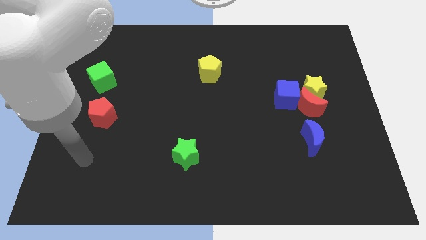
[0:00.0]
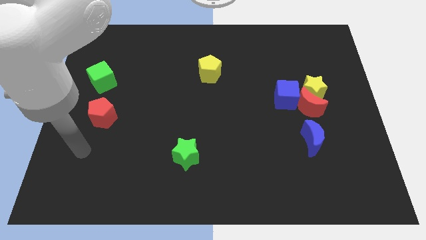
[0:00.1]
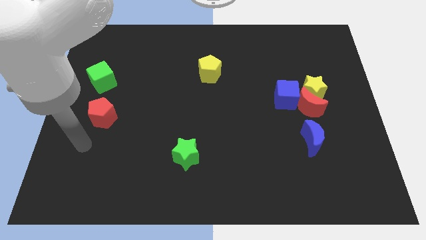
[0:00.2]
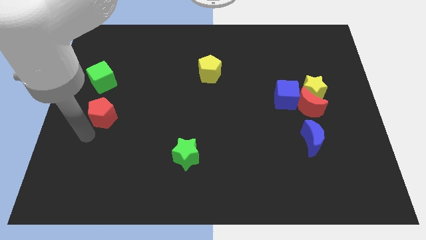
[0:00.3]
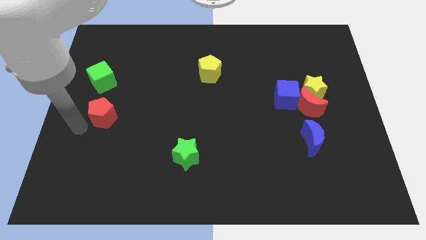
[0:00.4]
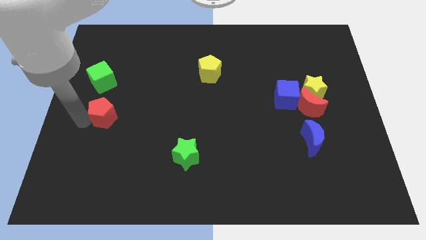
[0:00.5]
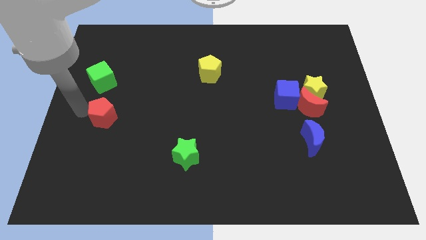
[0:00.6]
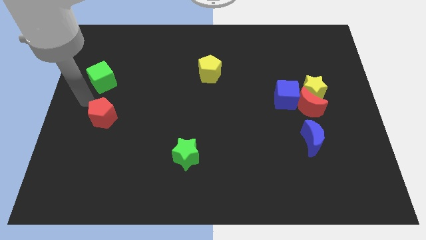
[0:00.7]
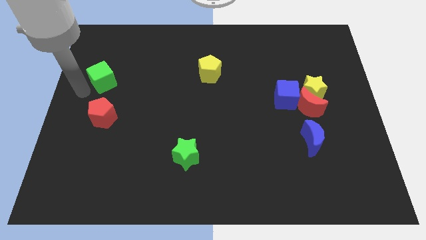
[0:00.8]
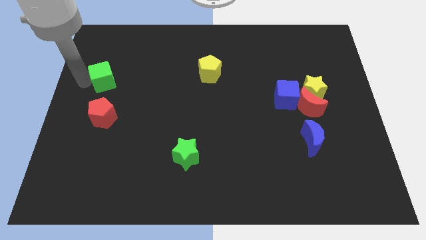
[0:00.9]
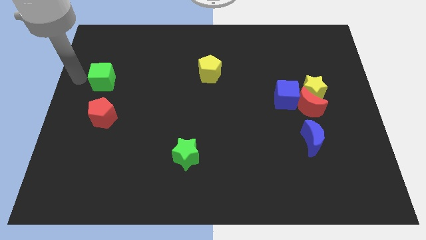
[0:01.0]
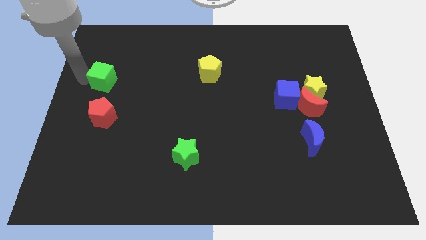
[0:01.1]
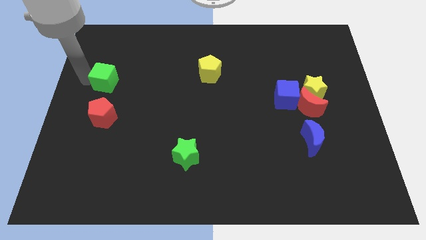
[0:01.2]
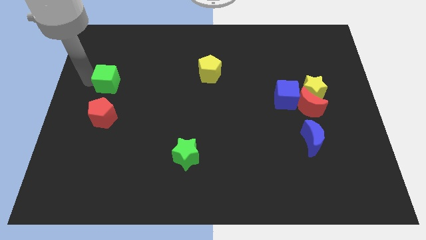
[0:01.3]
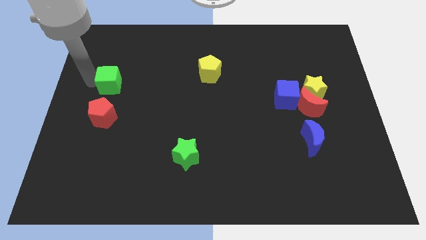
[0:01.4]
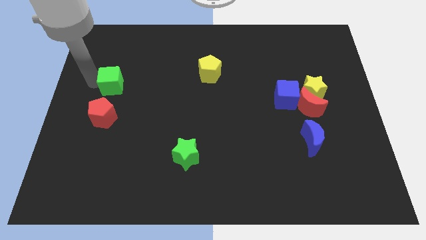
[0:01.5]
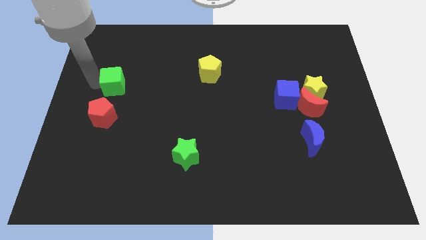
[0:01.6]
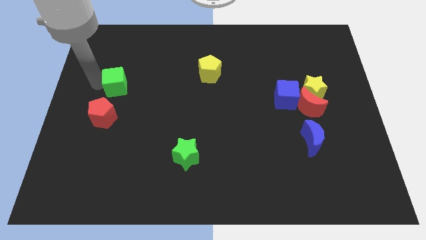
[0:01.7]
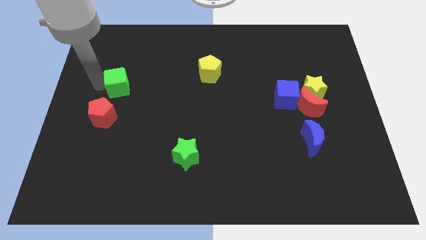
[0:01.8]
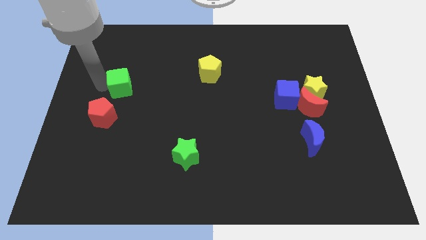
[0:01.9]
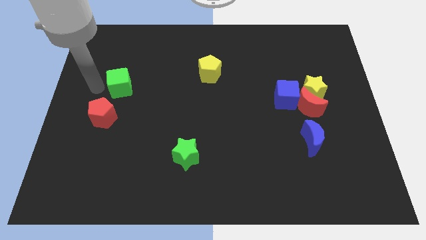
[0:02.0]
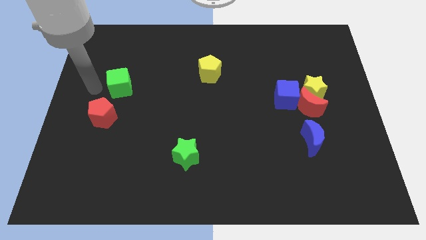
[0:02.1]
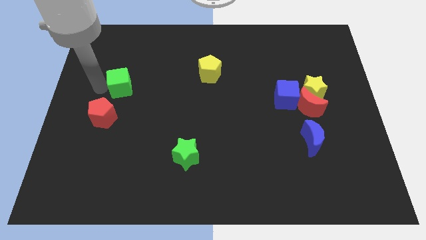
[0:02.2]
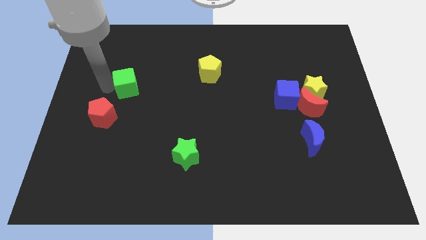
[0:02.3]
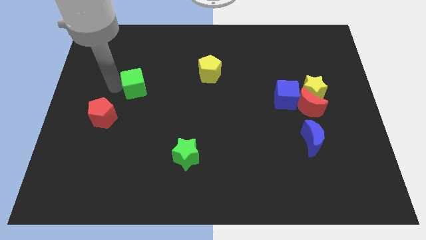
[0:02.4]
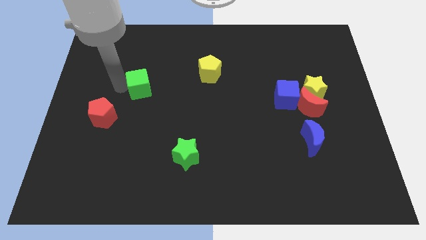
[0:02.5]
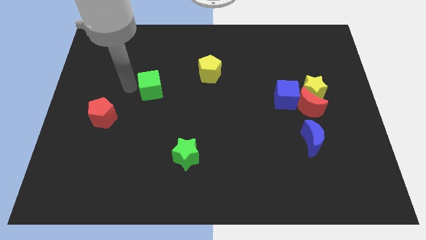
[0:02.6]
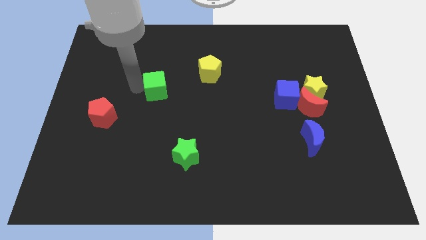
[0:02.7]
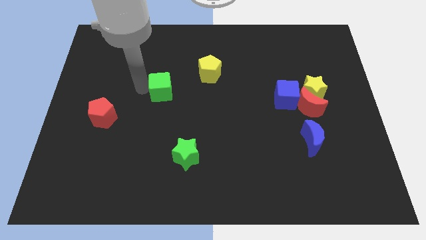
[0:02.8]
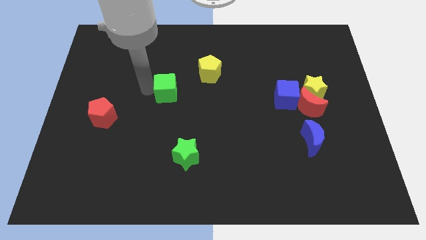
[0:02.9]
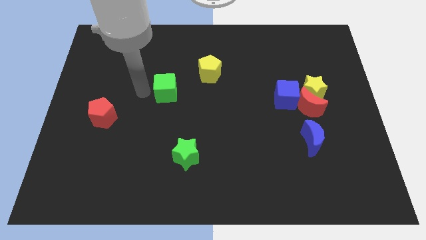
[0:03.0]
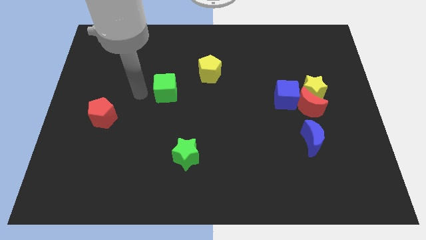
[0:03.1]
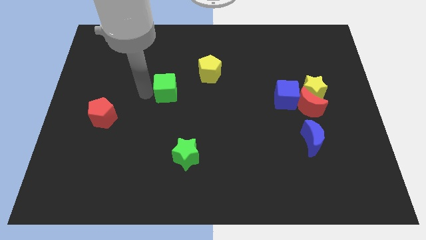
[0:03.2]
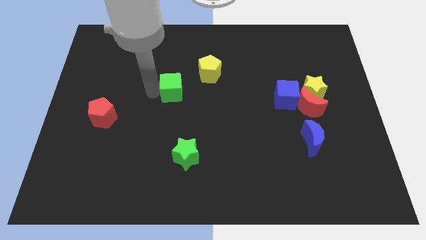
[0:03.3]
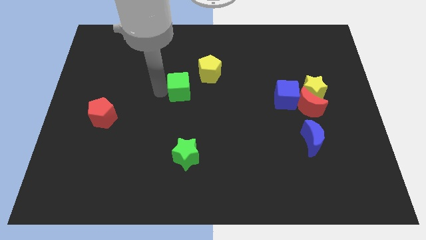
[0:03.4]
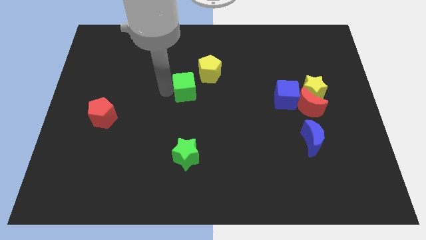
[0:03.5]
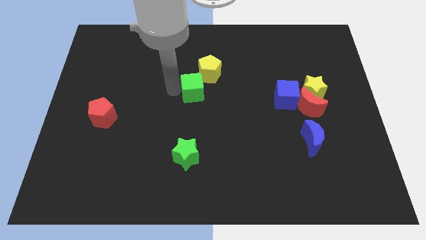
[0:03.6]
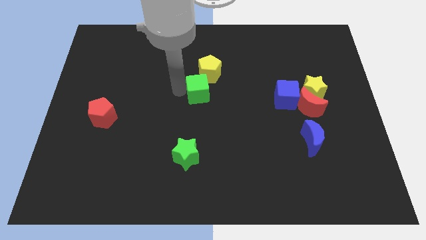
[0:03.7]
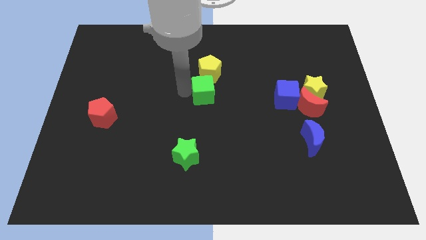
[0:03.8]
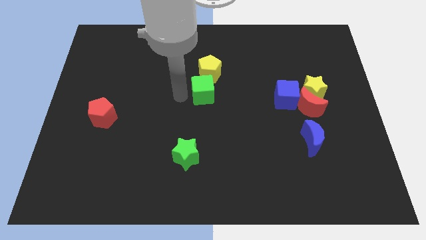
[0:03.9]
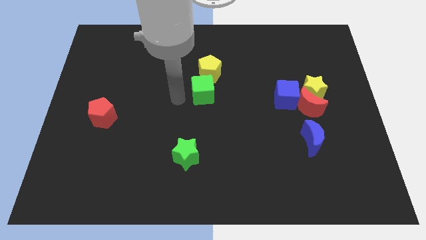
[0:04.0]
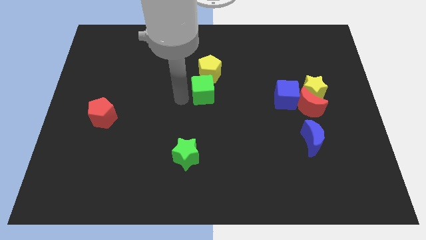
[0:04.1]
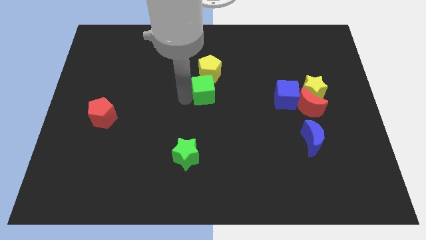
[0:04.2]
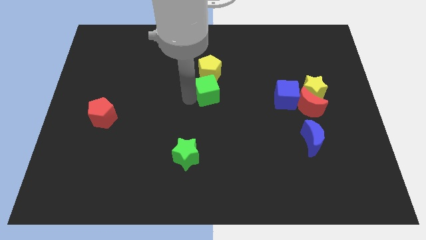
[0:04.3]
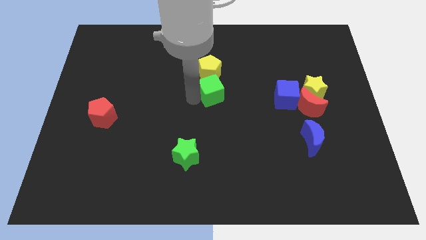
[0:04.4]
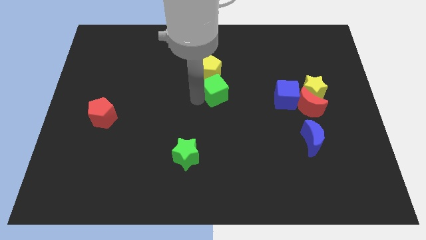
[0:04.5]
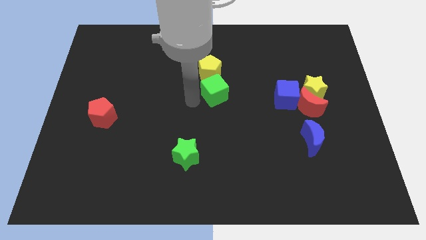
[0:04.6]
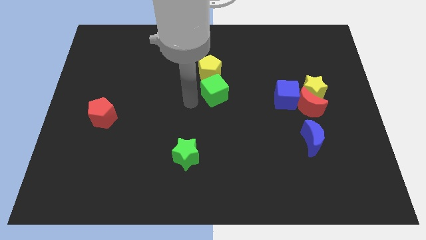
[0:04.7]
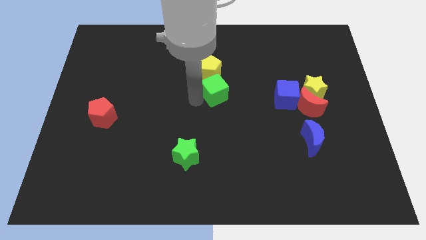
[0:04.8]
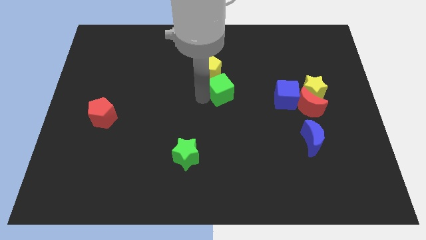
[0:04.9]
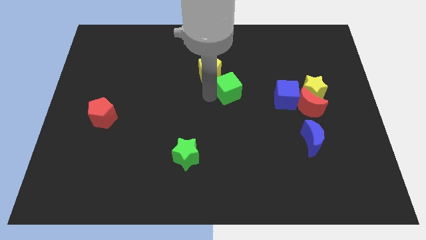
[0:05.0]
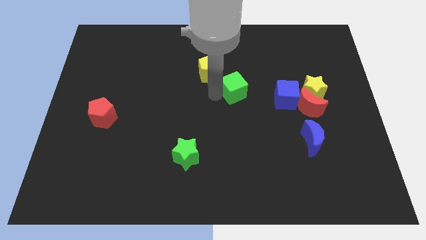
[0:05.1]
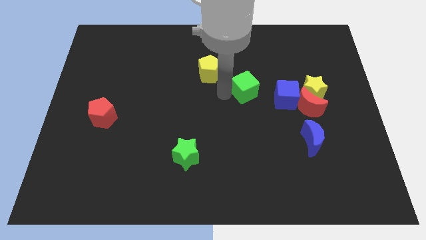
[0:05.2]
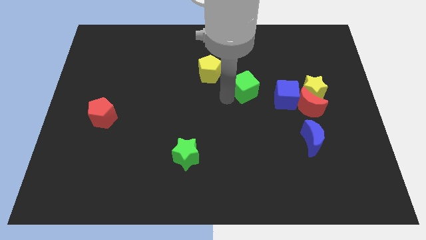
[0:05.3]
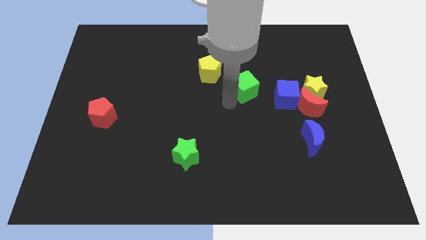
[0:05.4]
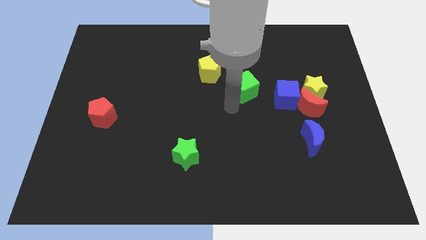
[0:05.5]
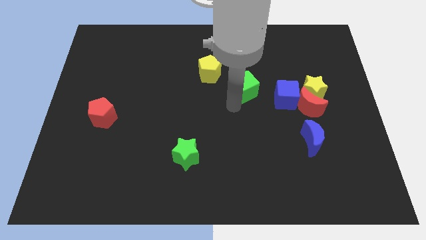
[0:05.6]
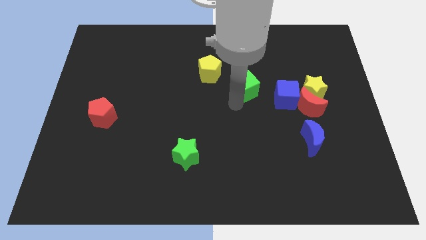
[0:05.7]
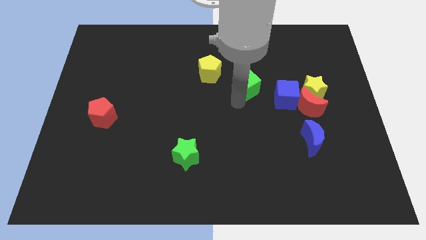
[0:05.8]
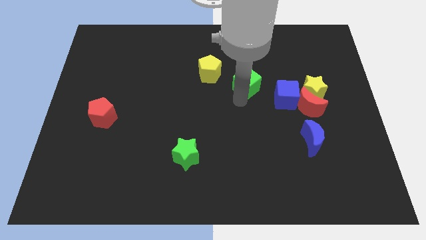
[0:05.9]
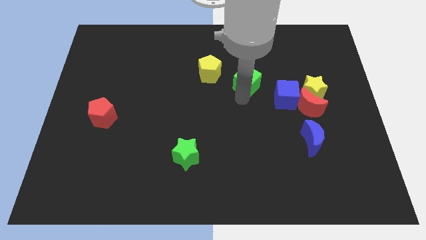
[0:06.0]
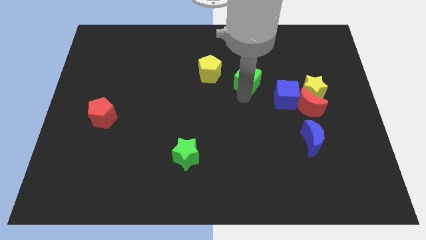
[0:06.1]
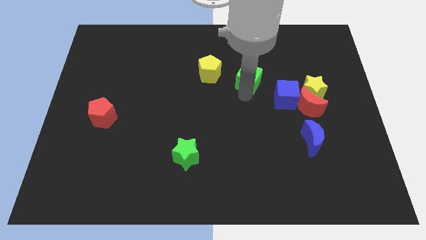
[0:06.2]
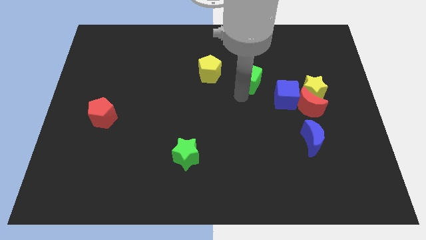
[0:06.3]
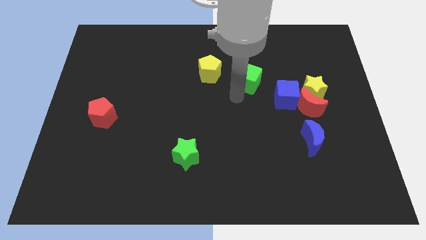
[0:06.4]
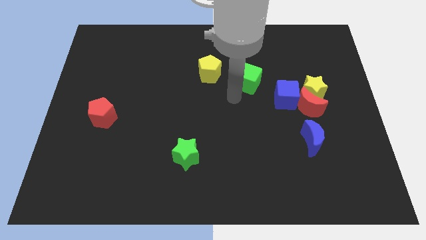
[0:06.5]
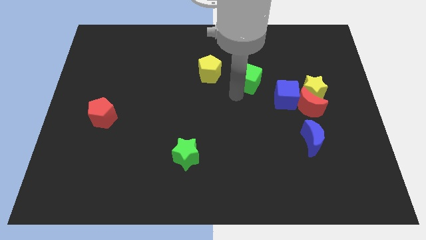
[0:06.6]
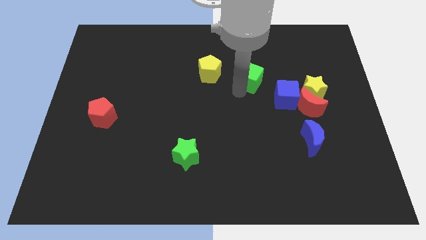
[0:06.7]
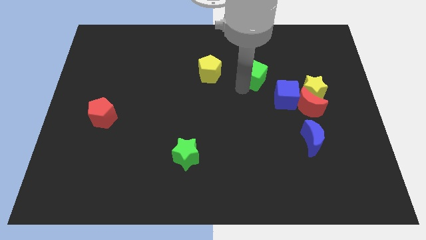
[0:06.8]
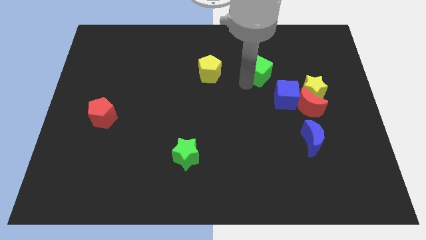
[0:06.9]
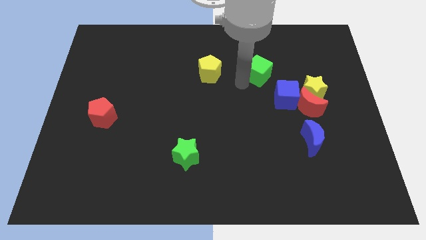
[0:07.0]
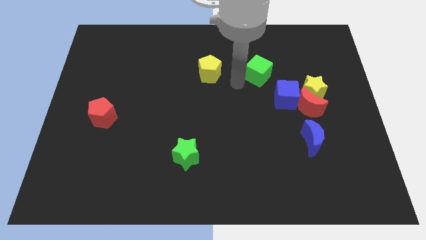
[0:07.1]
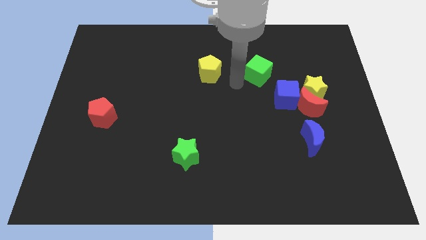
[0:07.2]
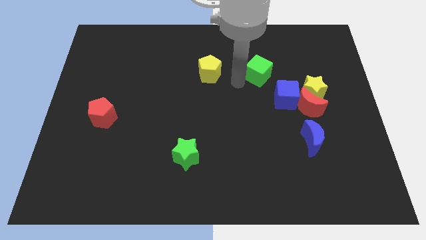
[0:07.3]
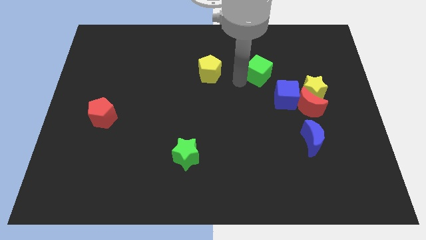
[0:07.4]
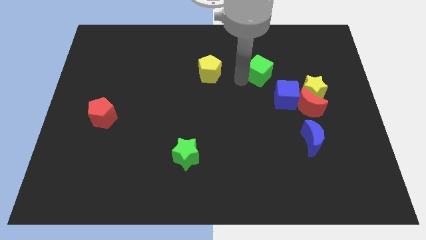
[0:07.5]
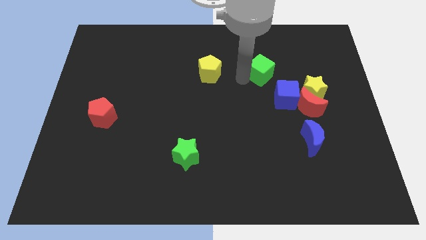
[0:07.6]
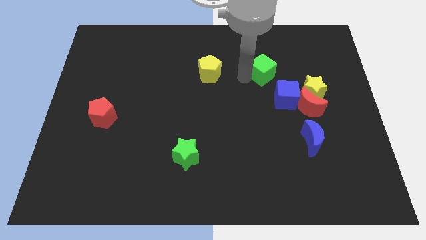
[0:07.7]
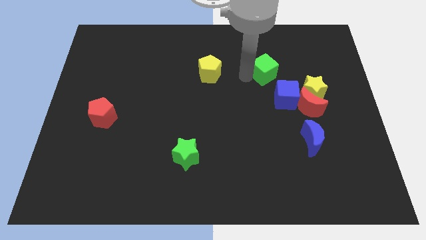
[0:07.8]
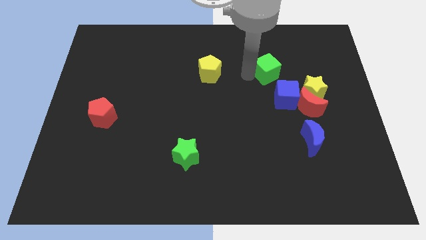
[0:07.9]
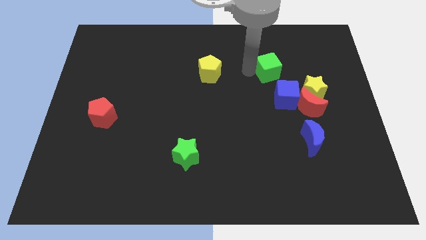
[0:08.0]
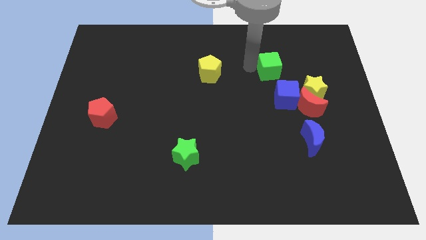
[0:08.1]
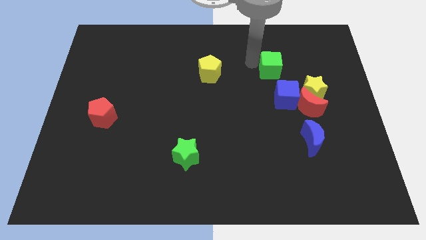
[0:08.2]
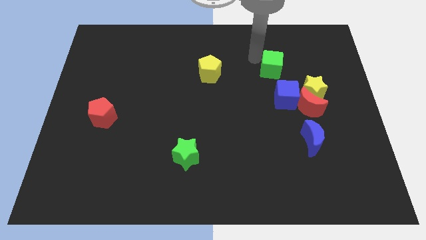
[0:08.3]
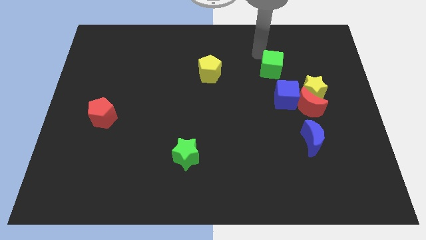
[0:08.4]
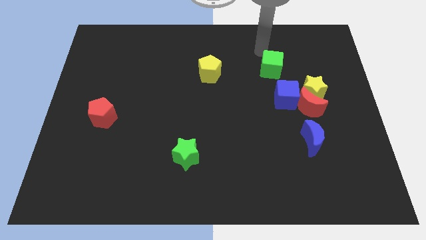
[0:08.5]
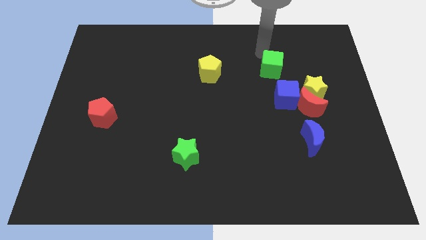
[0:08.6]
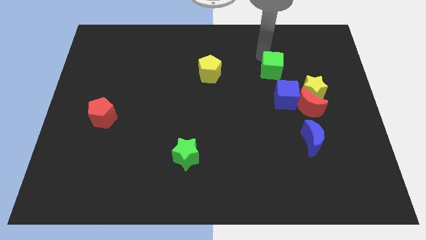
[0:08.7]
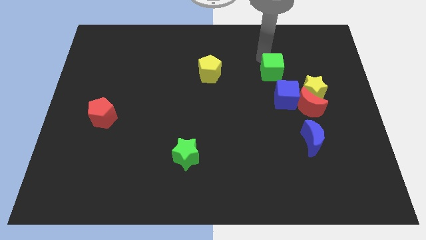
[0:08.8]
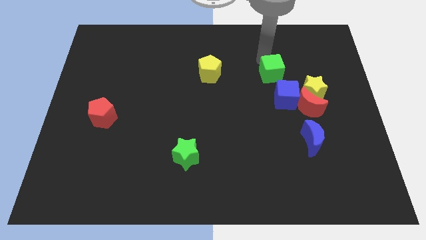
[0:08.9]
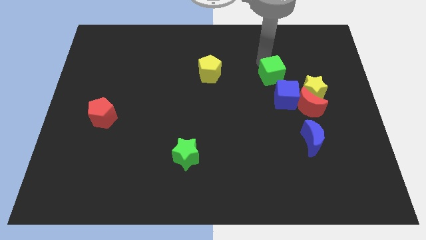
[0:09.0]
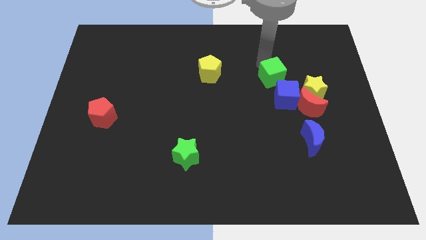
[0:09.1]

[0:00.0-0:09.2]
push the green cube diagonally up and to the left of the red moon
